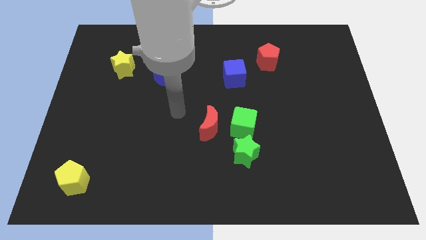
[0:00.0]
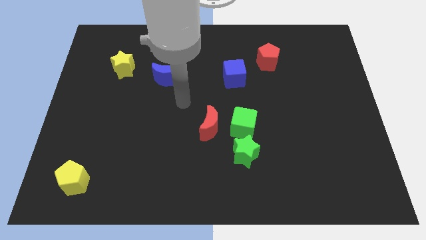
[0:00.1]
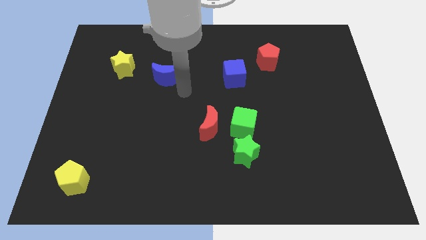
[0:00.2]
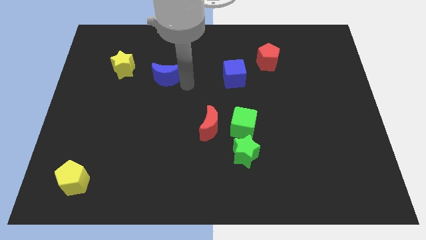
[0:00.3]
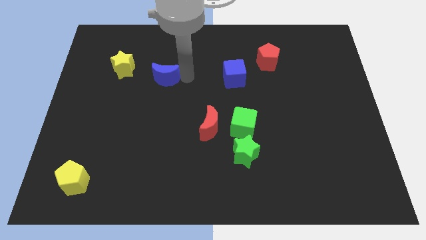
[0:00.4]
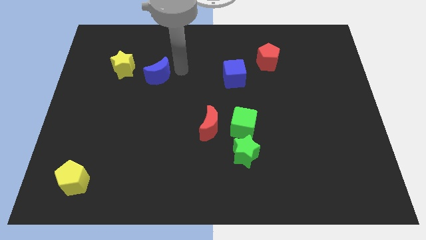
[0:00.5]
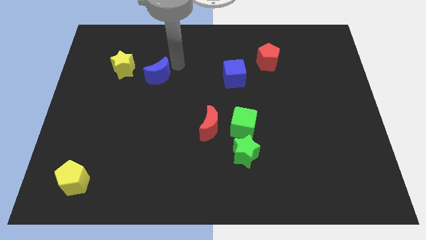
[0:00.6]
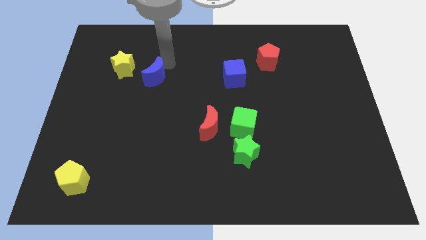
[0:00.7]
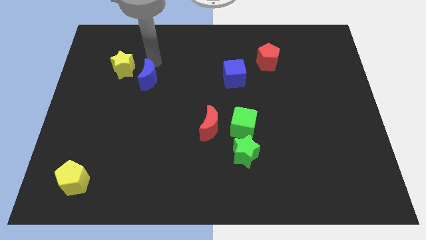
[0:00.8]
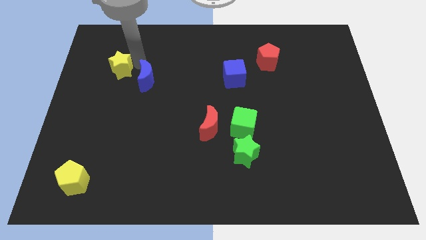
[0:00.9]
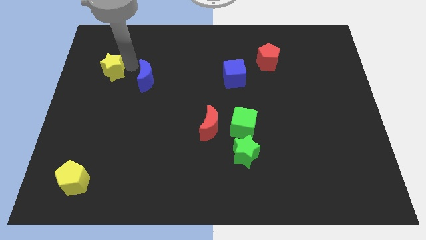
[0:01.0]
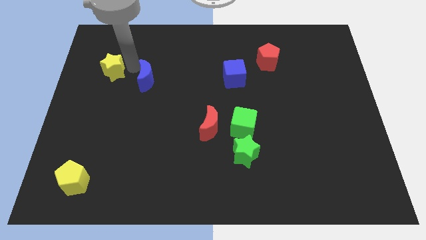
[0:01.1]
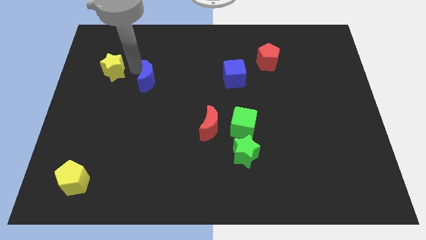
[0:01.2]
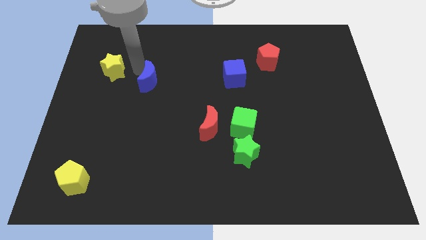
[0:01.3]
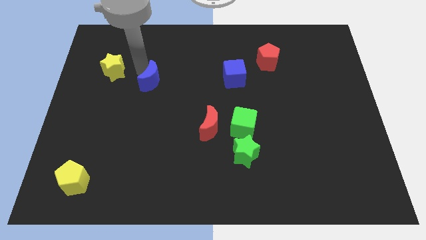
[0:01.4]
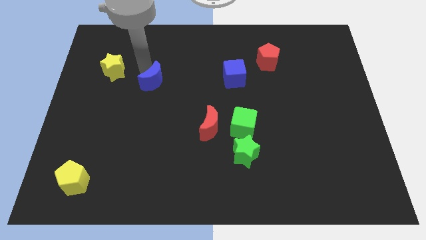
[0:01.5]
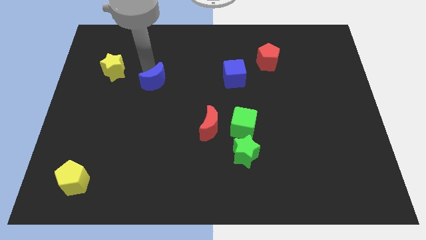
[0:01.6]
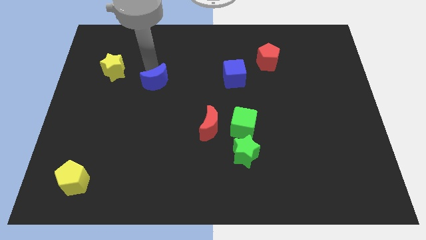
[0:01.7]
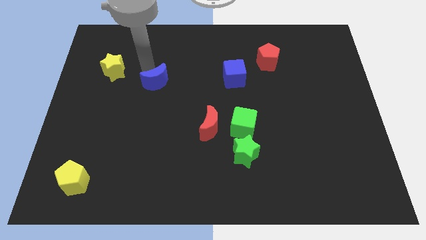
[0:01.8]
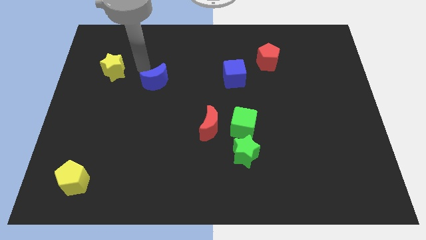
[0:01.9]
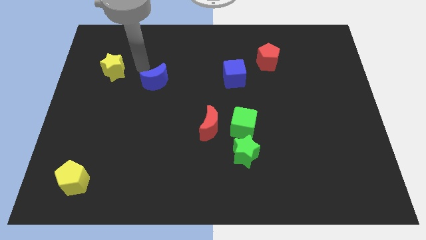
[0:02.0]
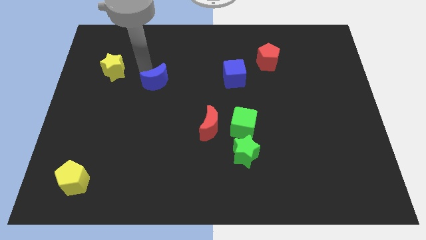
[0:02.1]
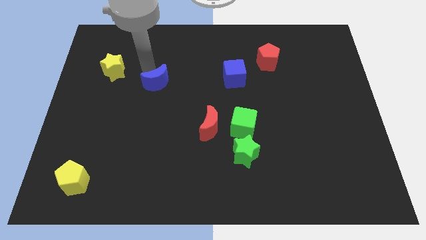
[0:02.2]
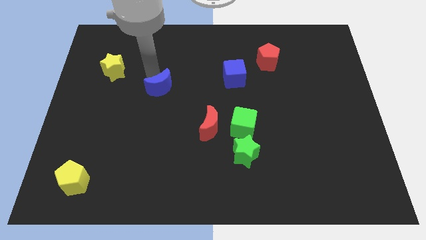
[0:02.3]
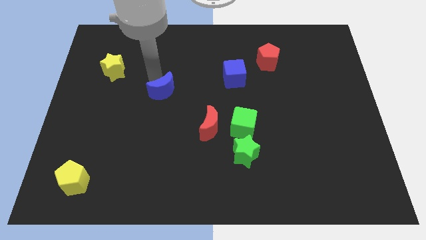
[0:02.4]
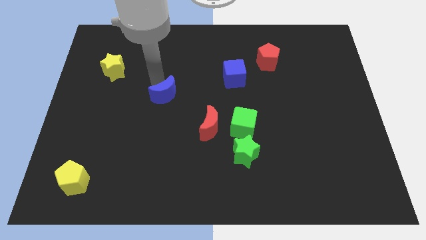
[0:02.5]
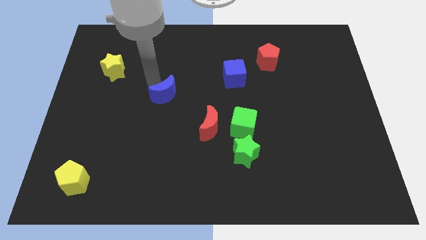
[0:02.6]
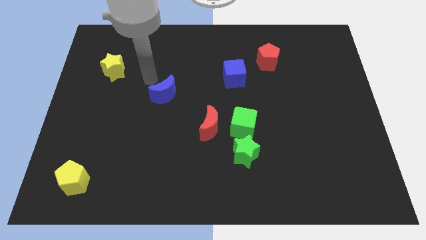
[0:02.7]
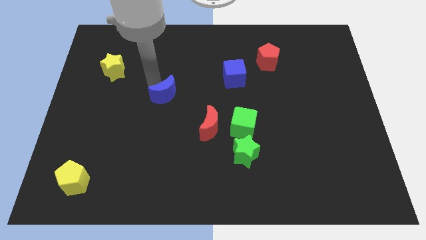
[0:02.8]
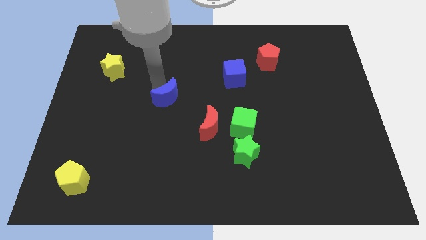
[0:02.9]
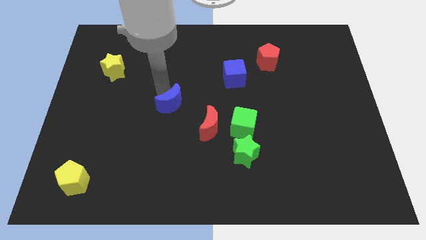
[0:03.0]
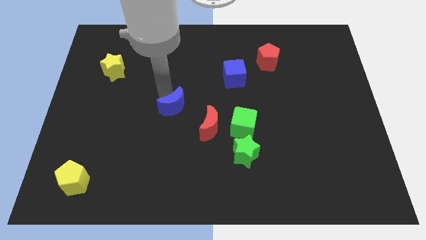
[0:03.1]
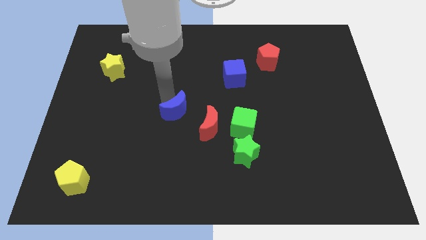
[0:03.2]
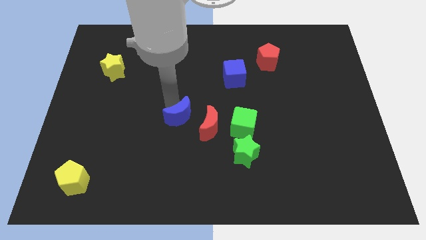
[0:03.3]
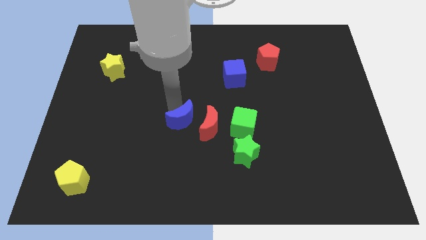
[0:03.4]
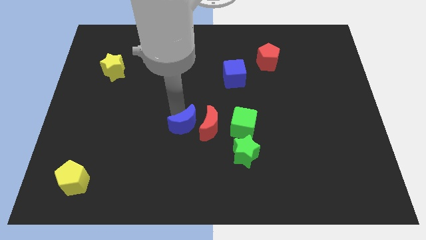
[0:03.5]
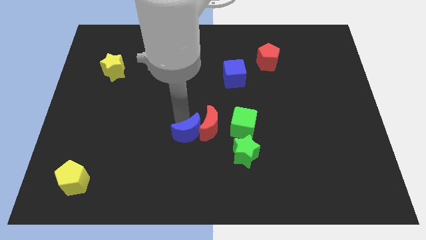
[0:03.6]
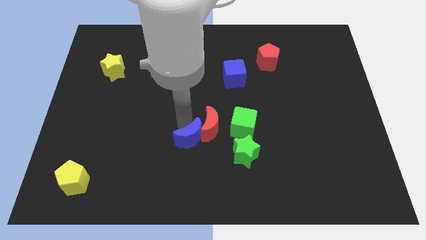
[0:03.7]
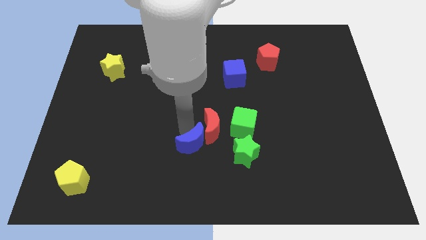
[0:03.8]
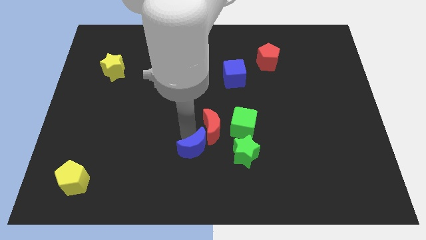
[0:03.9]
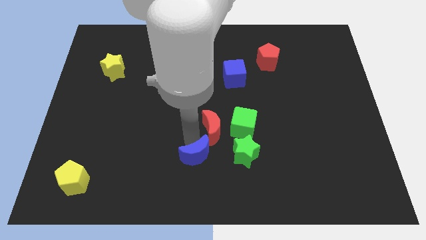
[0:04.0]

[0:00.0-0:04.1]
slide the blue moon to the bottom side

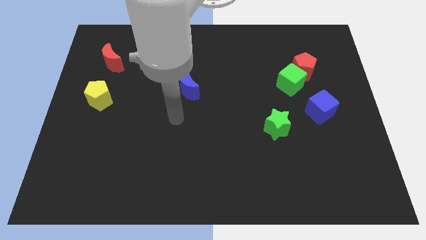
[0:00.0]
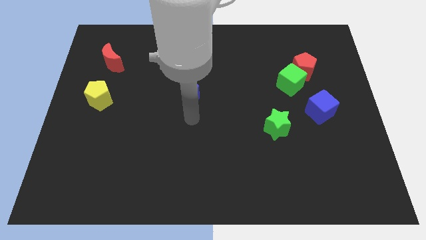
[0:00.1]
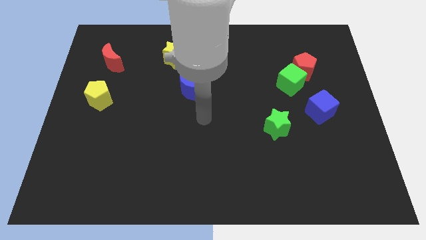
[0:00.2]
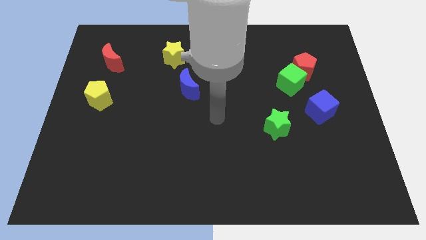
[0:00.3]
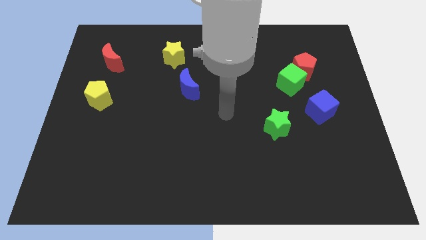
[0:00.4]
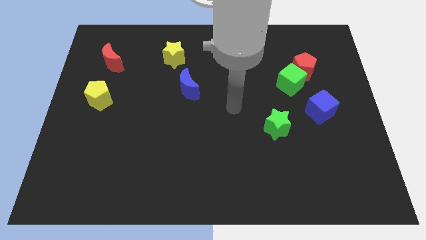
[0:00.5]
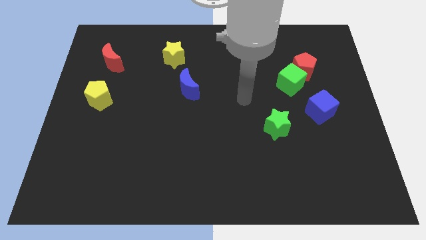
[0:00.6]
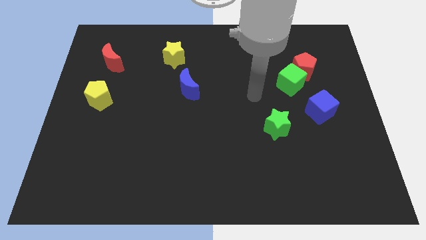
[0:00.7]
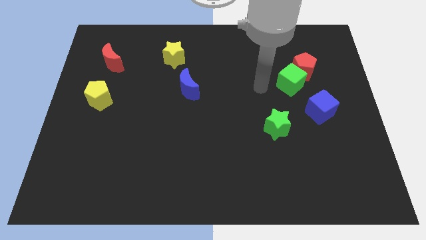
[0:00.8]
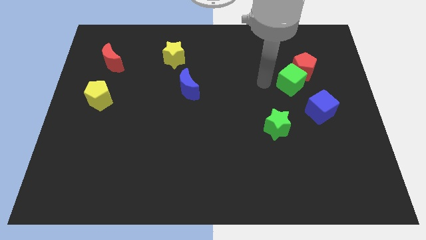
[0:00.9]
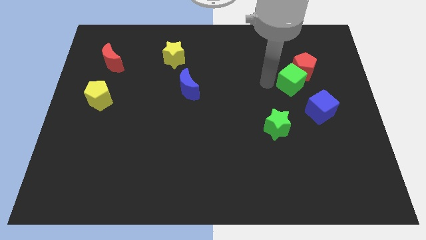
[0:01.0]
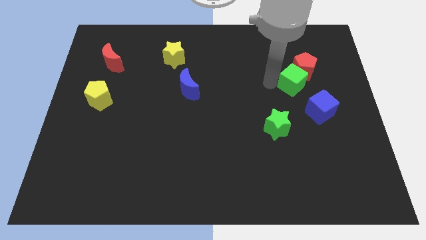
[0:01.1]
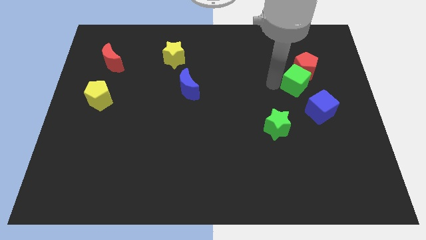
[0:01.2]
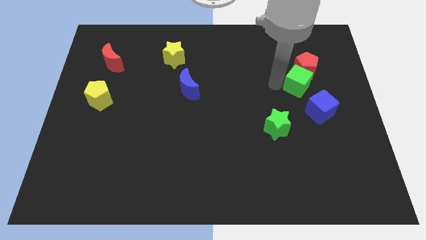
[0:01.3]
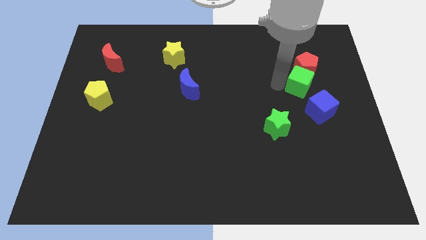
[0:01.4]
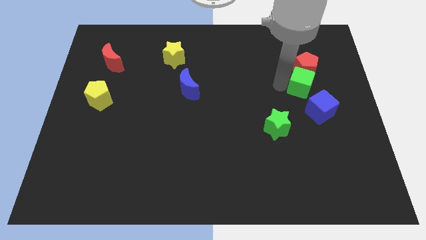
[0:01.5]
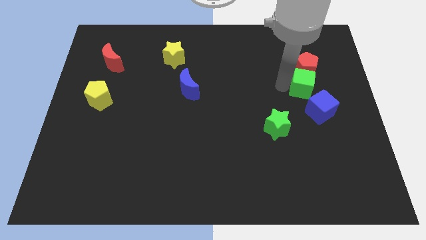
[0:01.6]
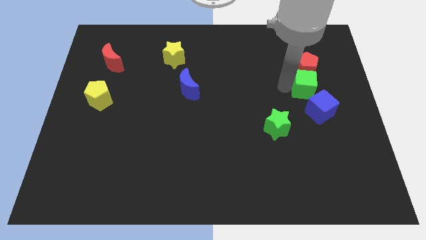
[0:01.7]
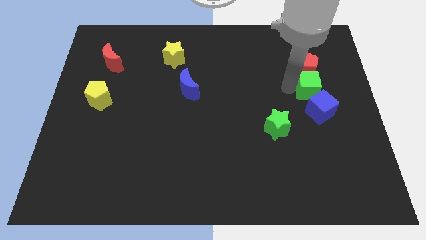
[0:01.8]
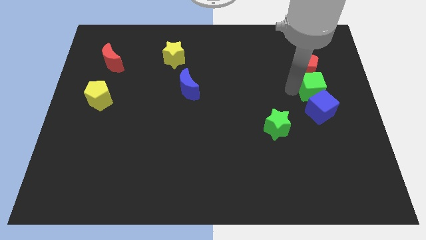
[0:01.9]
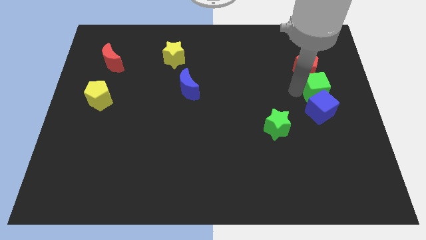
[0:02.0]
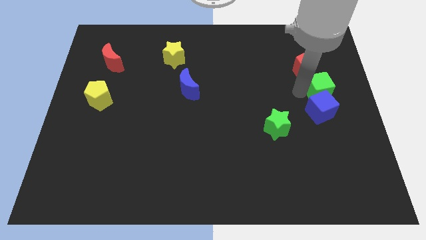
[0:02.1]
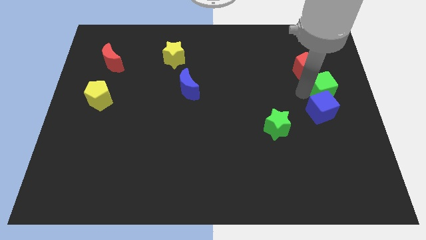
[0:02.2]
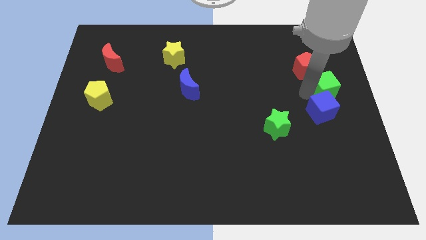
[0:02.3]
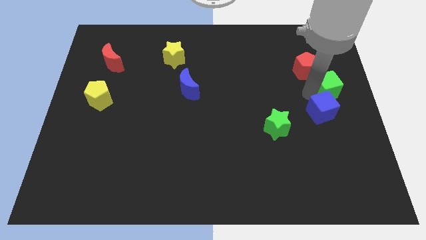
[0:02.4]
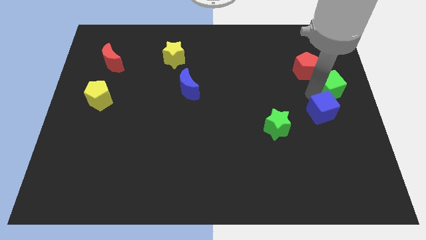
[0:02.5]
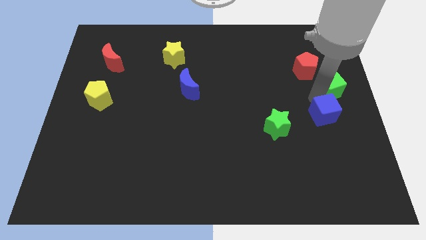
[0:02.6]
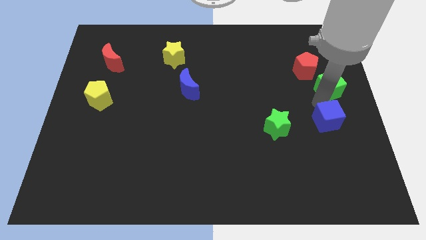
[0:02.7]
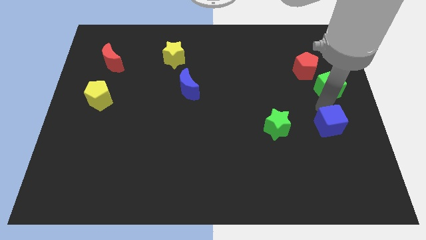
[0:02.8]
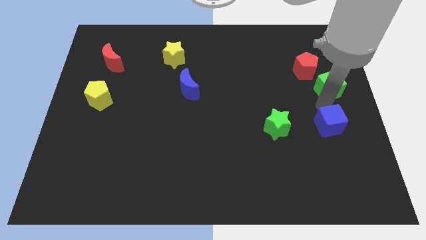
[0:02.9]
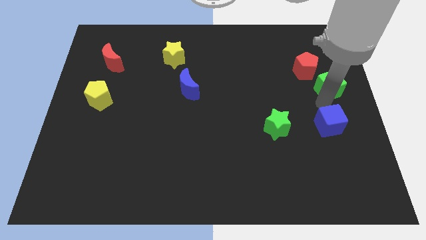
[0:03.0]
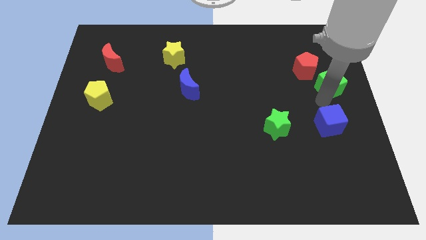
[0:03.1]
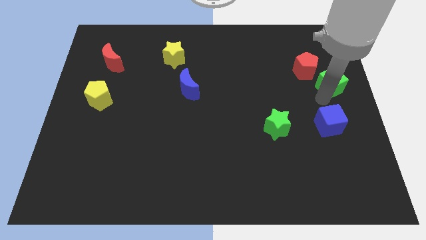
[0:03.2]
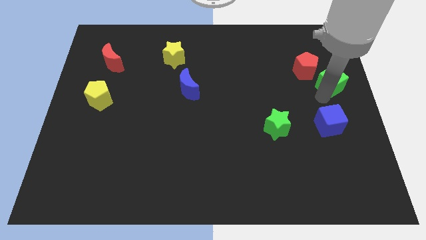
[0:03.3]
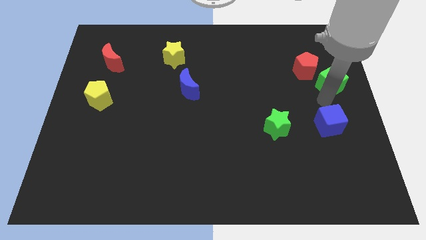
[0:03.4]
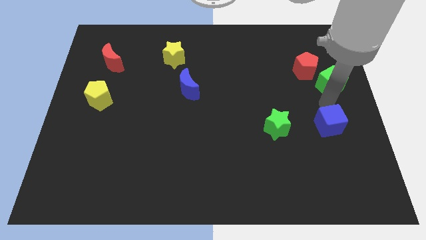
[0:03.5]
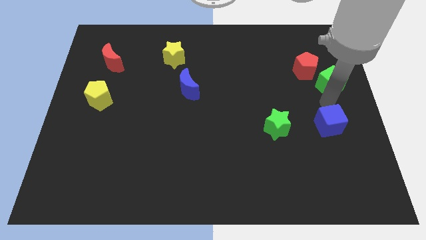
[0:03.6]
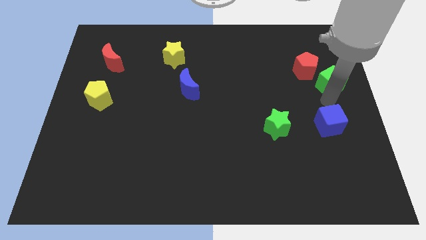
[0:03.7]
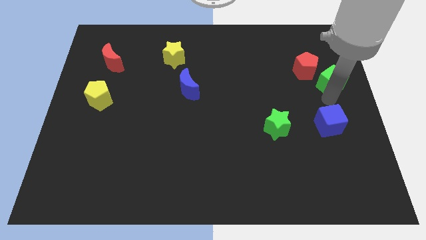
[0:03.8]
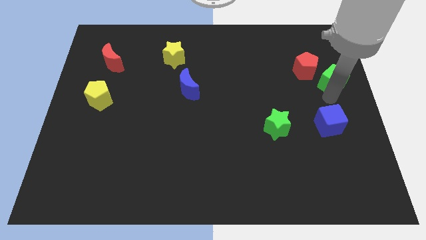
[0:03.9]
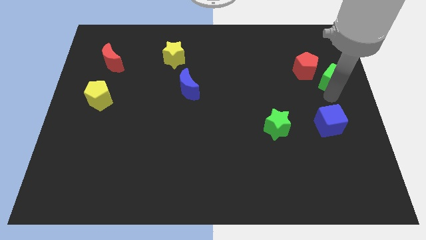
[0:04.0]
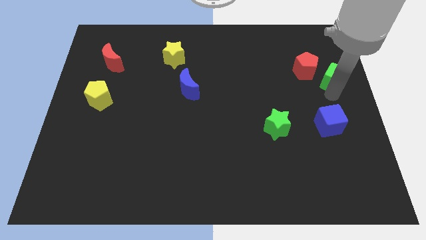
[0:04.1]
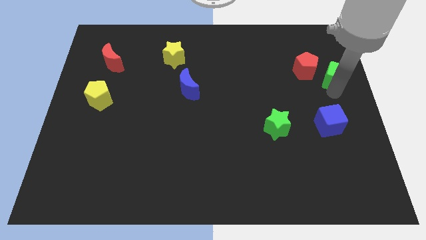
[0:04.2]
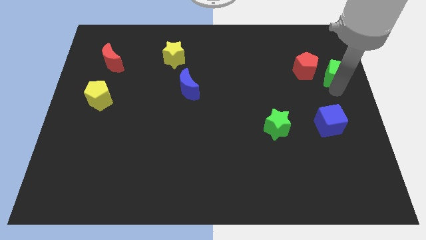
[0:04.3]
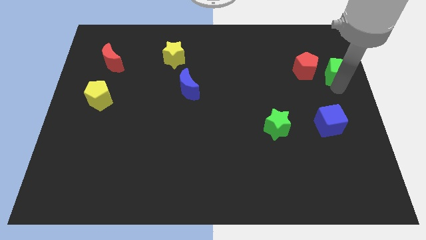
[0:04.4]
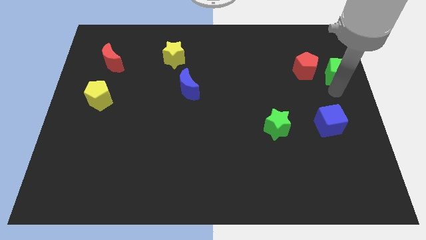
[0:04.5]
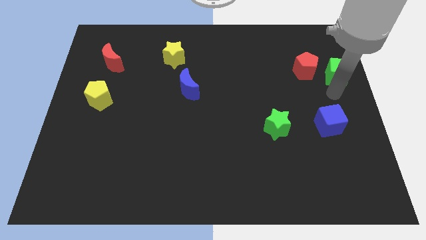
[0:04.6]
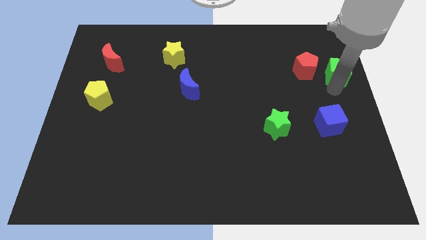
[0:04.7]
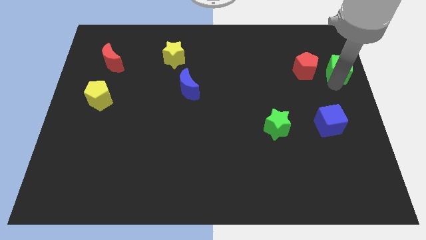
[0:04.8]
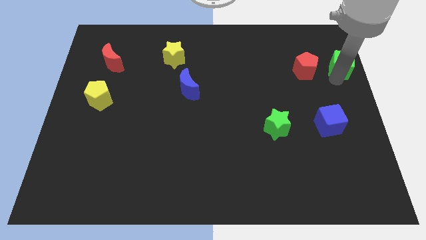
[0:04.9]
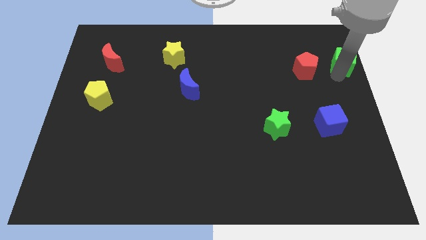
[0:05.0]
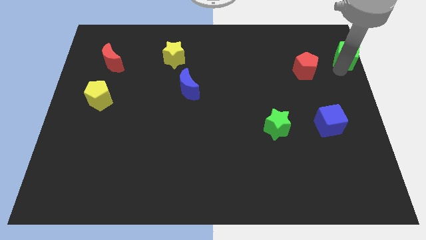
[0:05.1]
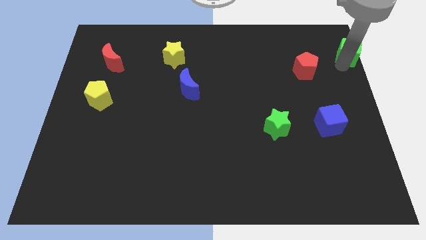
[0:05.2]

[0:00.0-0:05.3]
put the green cube to the top right
